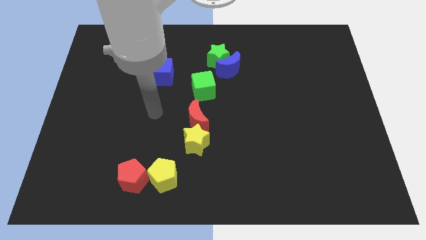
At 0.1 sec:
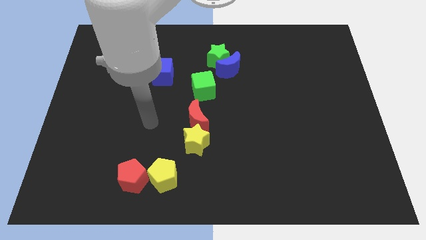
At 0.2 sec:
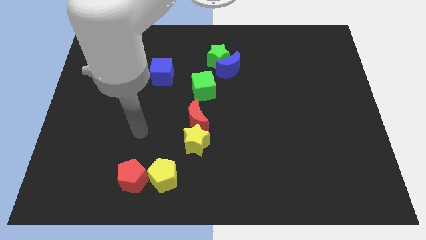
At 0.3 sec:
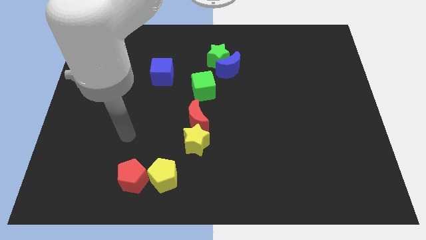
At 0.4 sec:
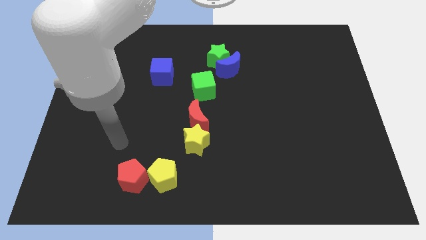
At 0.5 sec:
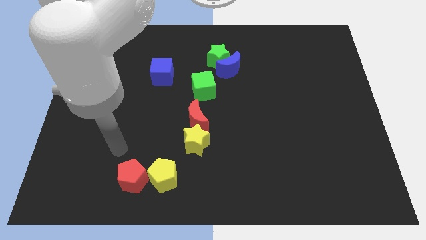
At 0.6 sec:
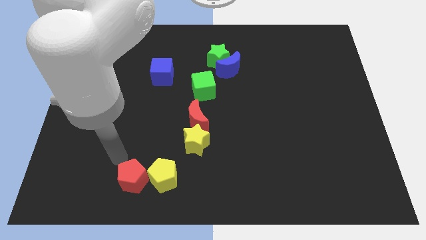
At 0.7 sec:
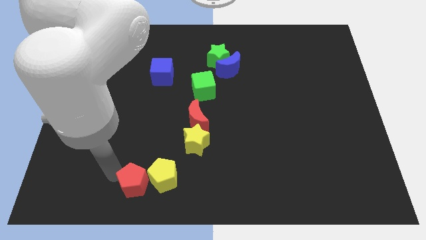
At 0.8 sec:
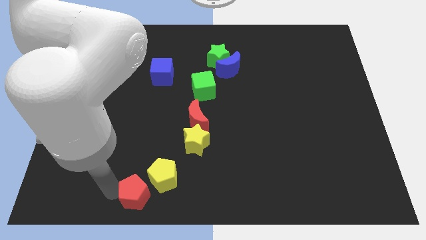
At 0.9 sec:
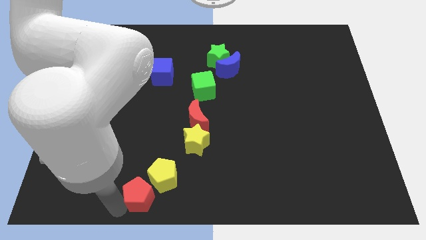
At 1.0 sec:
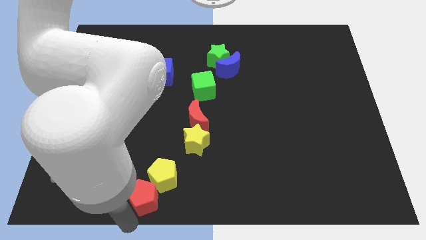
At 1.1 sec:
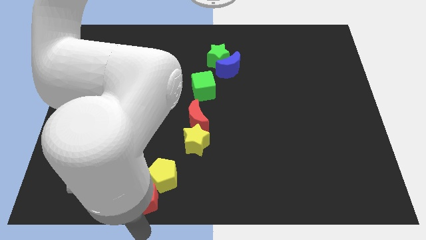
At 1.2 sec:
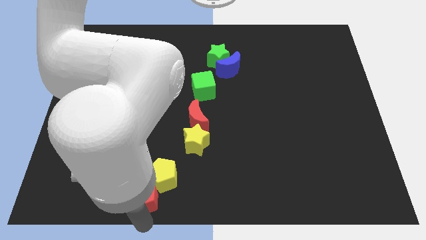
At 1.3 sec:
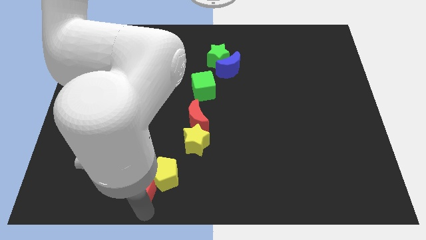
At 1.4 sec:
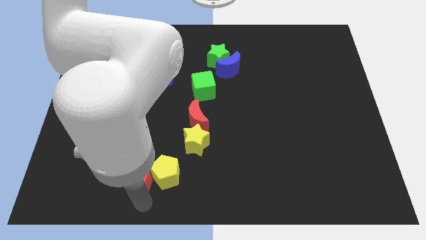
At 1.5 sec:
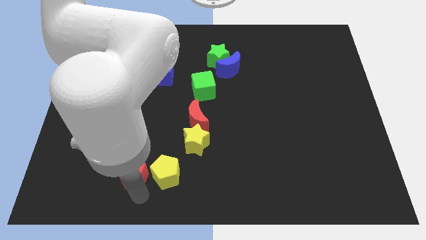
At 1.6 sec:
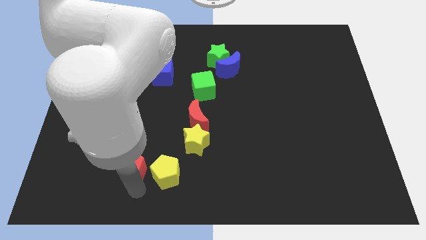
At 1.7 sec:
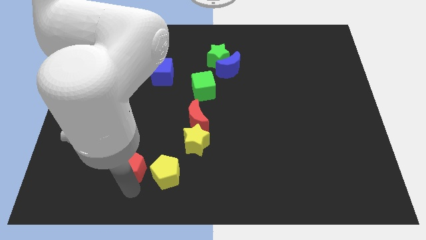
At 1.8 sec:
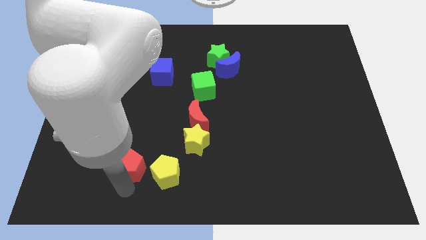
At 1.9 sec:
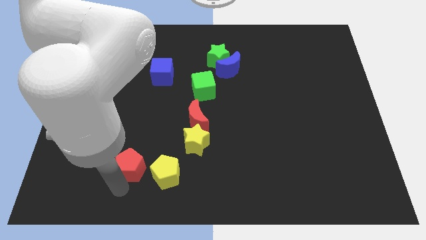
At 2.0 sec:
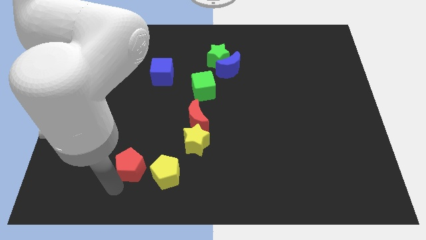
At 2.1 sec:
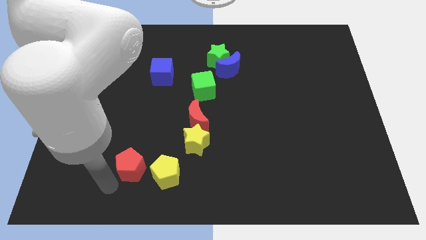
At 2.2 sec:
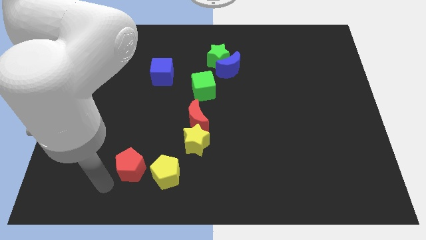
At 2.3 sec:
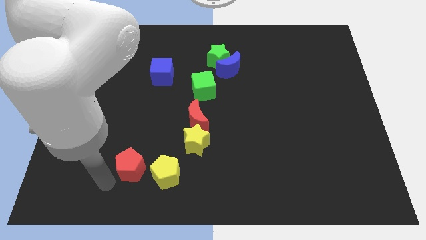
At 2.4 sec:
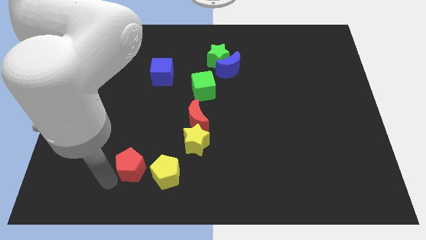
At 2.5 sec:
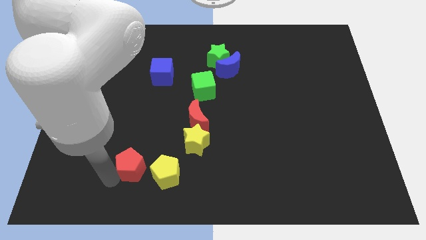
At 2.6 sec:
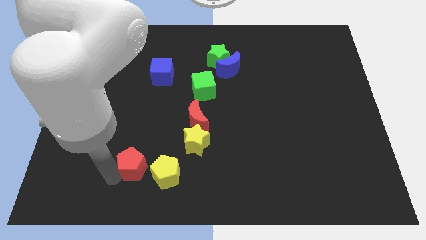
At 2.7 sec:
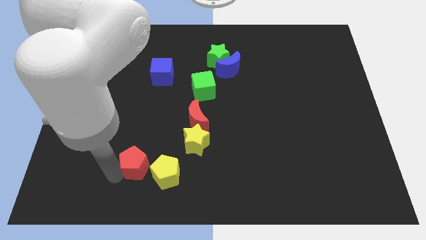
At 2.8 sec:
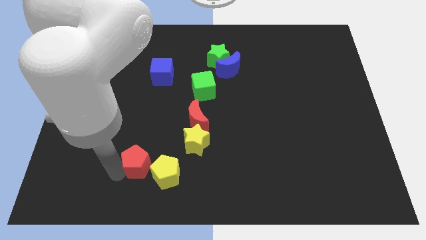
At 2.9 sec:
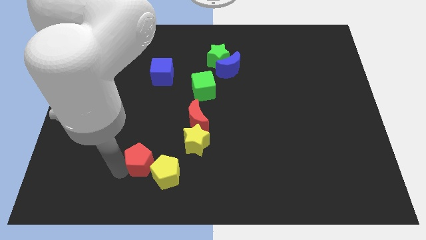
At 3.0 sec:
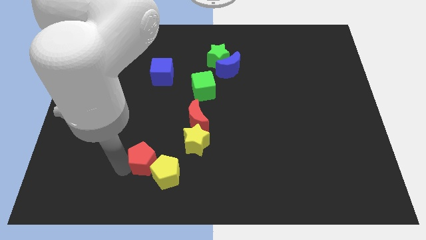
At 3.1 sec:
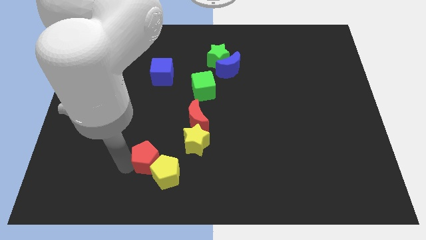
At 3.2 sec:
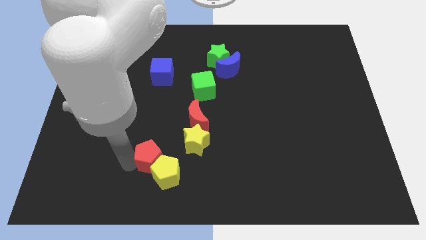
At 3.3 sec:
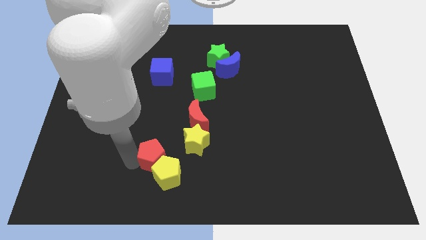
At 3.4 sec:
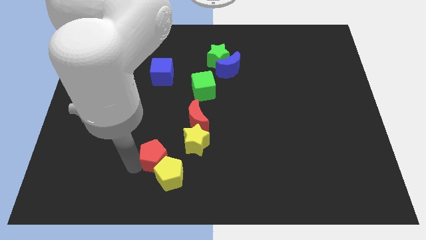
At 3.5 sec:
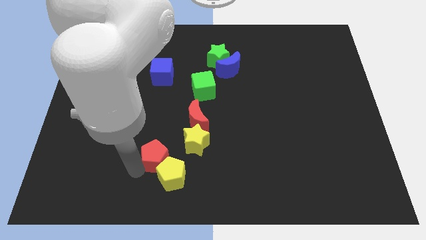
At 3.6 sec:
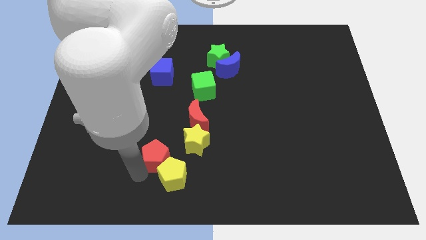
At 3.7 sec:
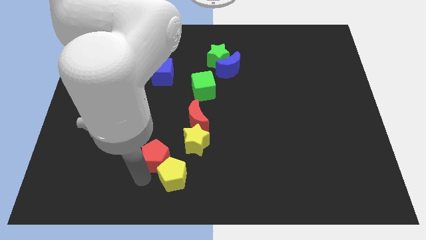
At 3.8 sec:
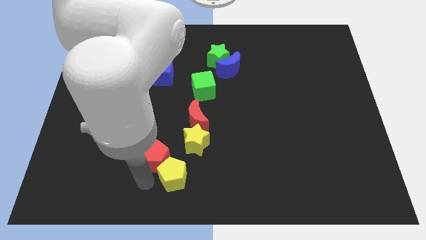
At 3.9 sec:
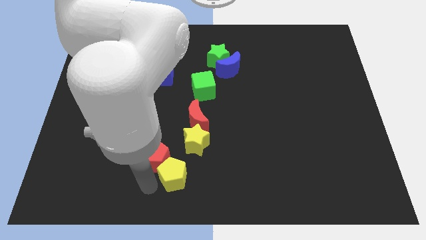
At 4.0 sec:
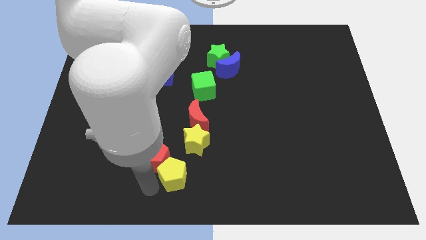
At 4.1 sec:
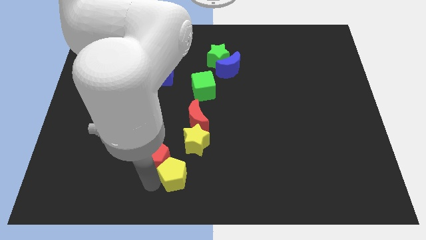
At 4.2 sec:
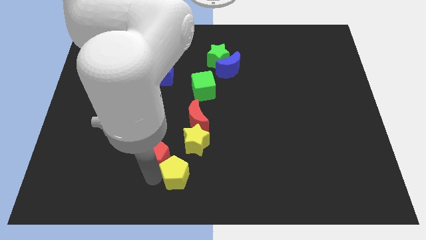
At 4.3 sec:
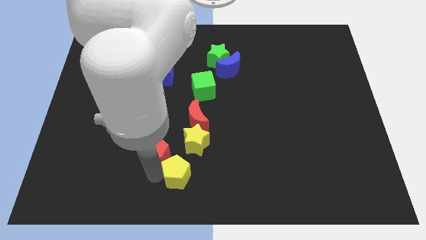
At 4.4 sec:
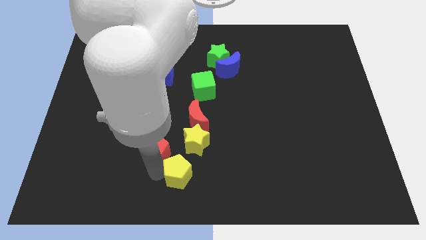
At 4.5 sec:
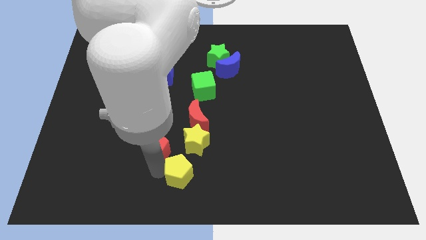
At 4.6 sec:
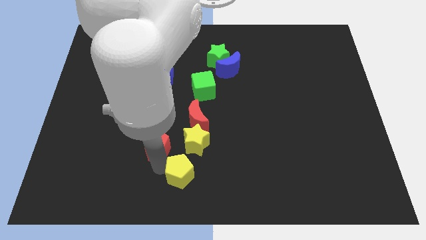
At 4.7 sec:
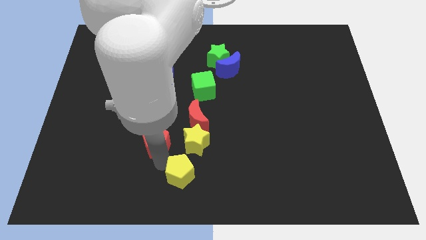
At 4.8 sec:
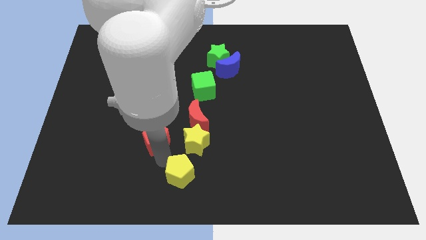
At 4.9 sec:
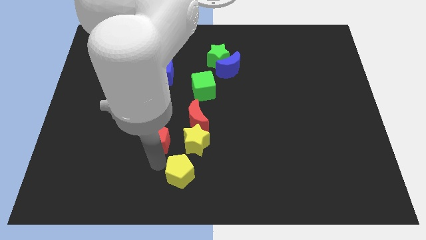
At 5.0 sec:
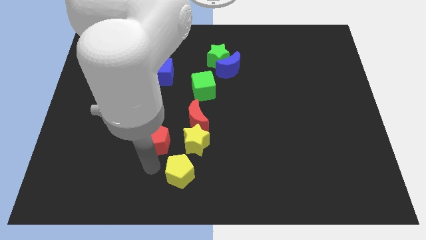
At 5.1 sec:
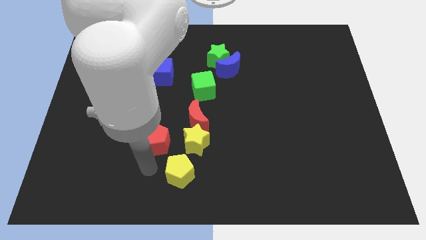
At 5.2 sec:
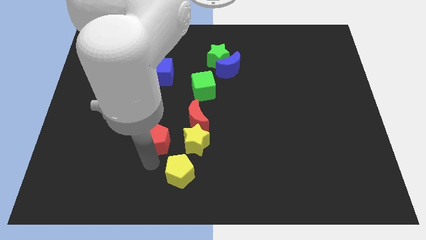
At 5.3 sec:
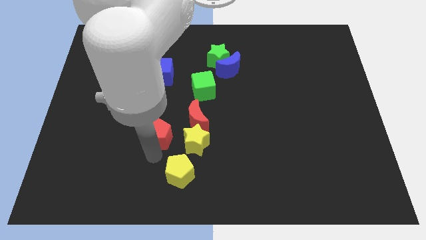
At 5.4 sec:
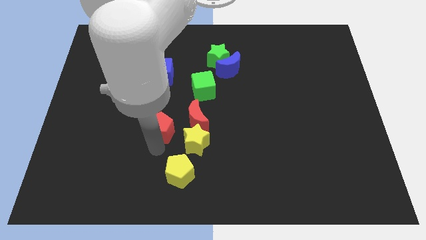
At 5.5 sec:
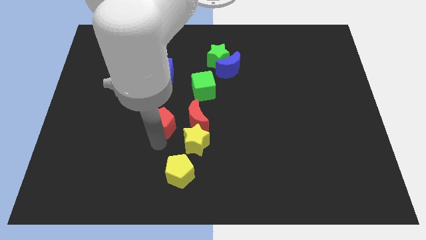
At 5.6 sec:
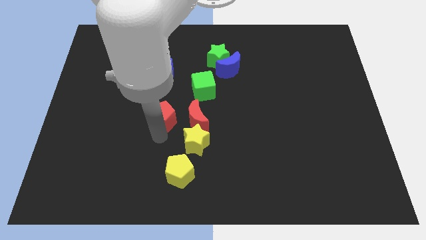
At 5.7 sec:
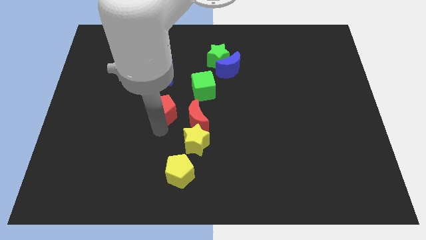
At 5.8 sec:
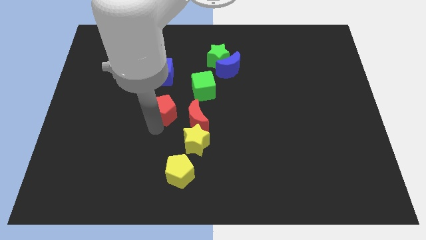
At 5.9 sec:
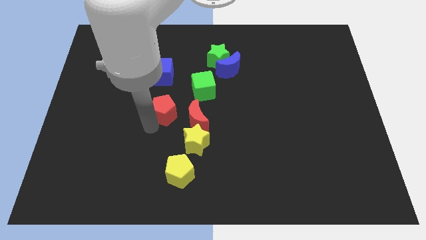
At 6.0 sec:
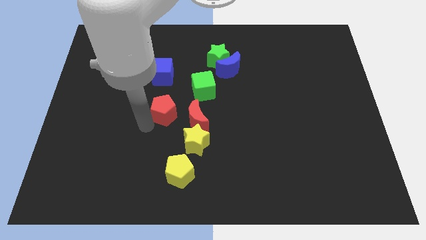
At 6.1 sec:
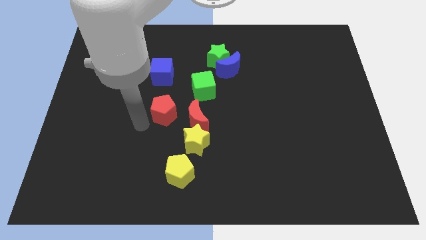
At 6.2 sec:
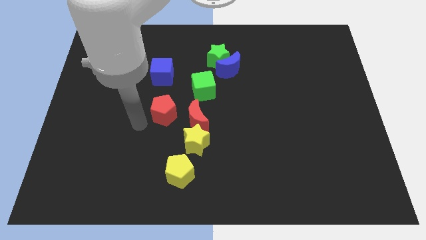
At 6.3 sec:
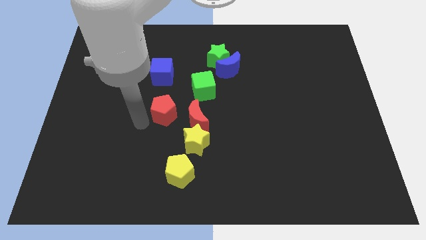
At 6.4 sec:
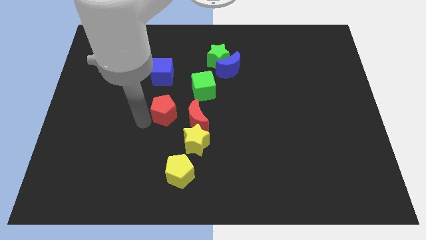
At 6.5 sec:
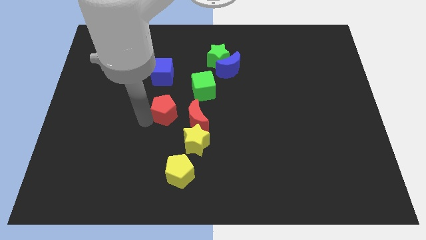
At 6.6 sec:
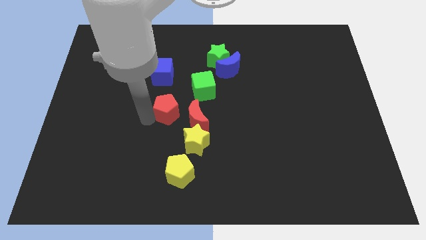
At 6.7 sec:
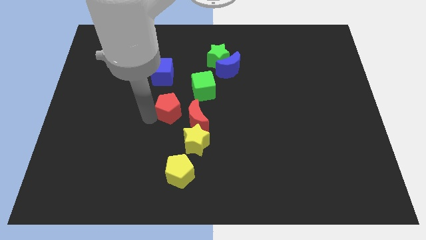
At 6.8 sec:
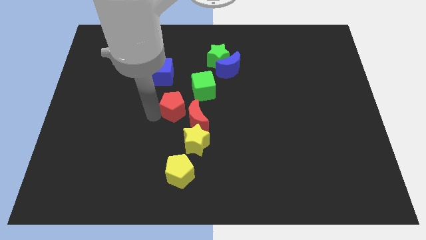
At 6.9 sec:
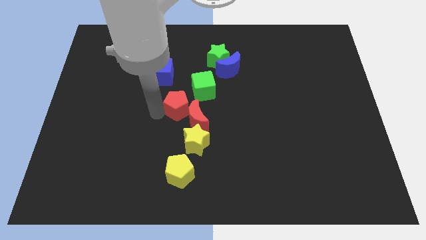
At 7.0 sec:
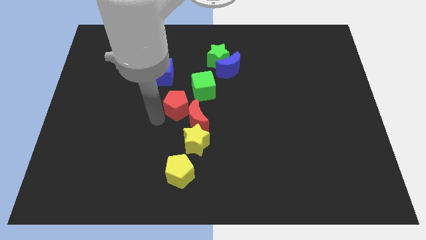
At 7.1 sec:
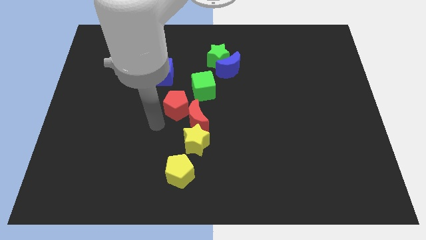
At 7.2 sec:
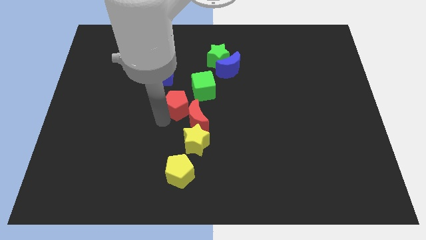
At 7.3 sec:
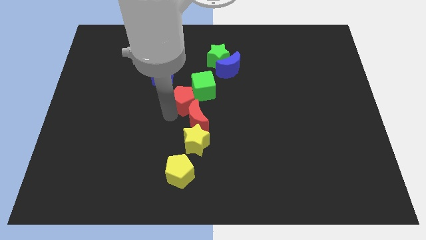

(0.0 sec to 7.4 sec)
slide the red pentagon close to the green cube

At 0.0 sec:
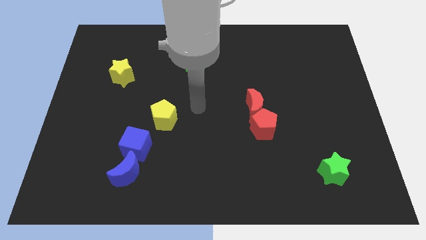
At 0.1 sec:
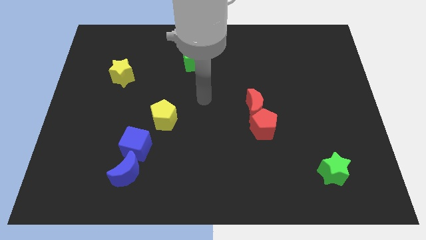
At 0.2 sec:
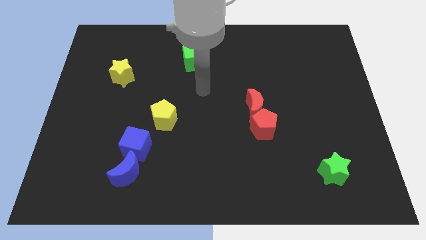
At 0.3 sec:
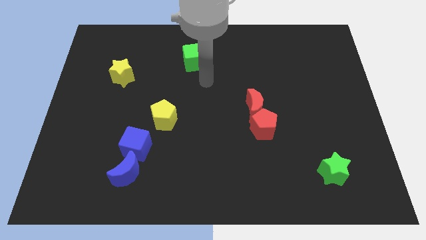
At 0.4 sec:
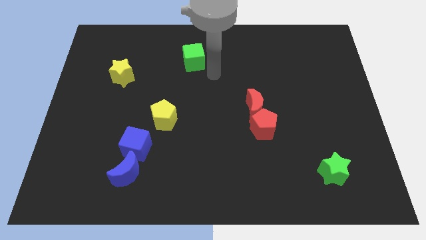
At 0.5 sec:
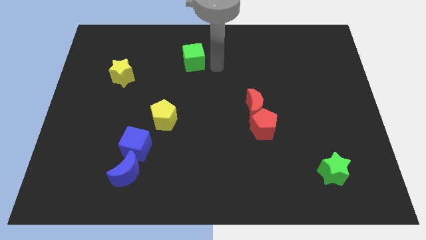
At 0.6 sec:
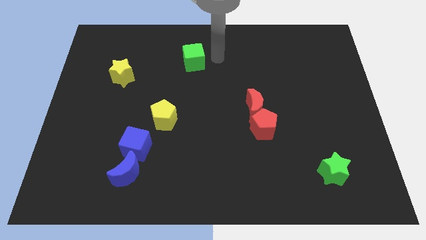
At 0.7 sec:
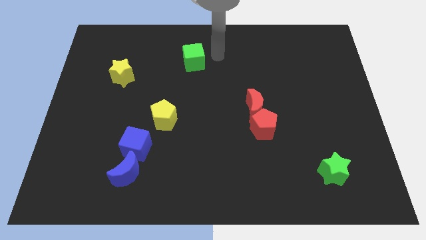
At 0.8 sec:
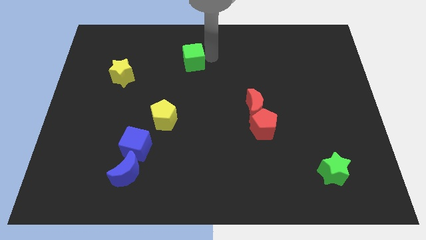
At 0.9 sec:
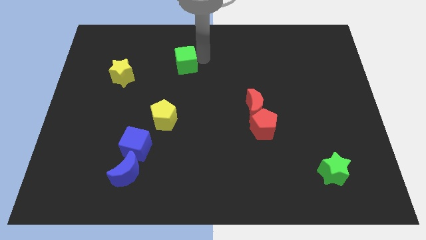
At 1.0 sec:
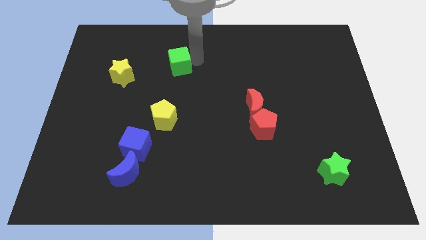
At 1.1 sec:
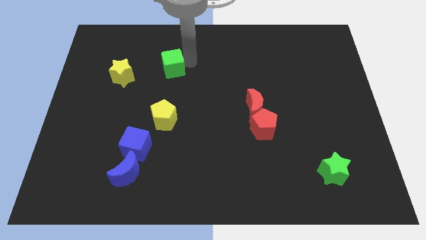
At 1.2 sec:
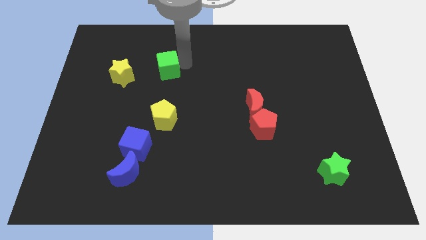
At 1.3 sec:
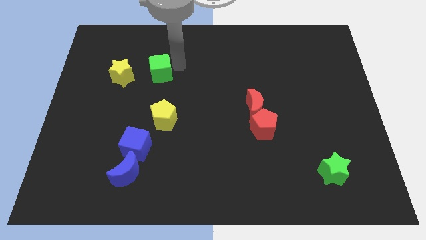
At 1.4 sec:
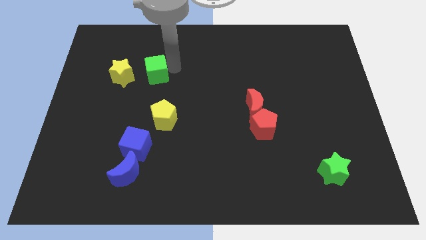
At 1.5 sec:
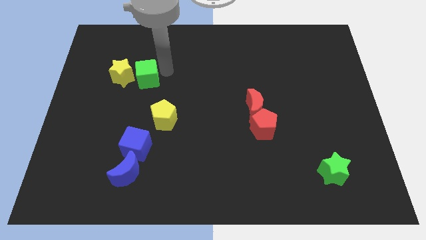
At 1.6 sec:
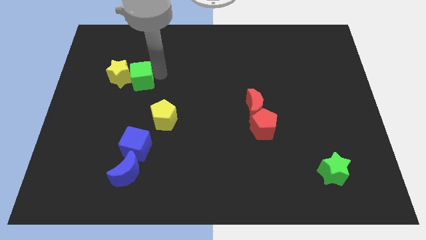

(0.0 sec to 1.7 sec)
push the green cube close to the yellow star
